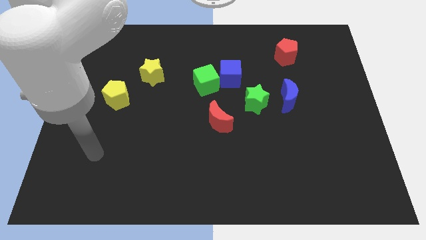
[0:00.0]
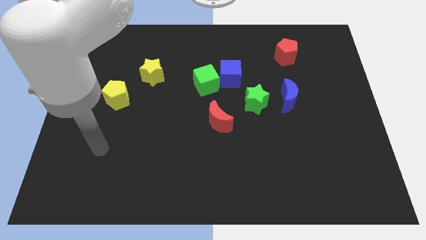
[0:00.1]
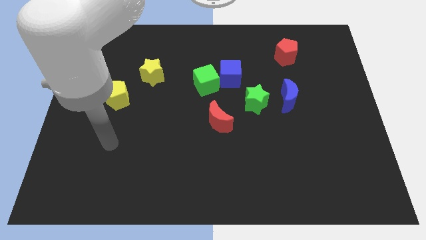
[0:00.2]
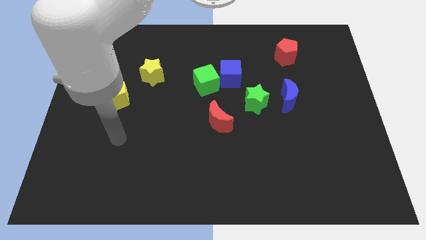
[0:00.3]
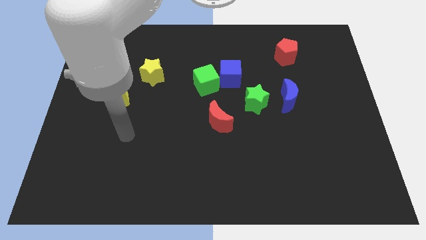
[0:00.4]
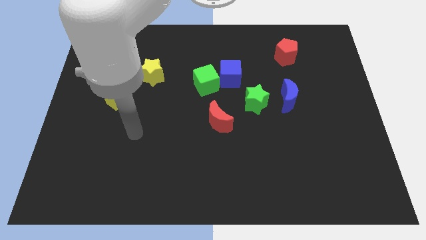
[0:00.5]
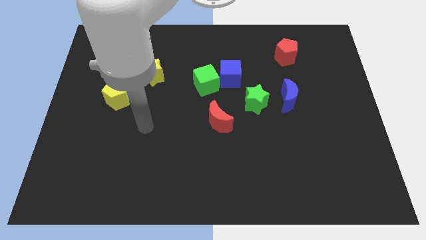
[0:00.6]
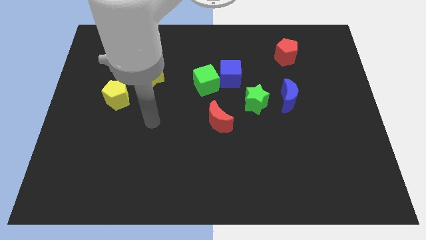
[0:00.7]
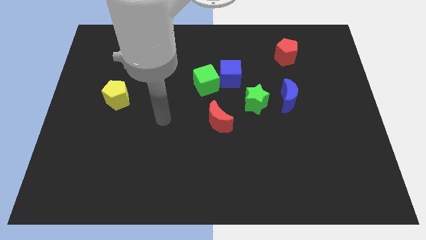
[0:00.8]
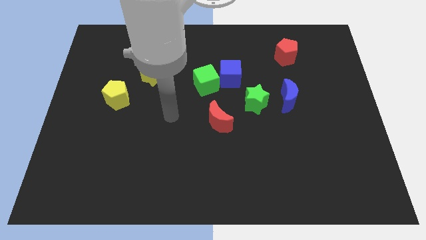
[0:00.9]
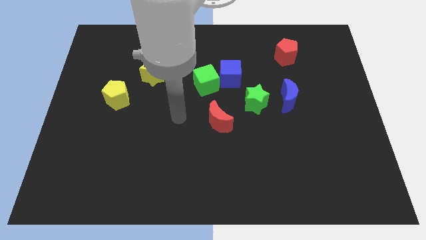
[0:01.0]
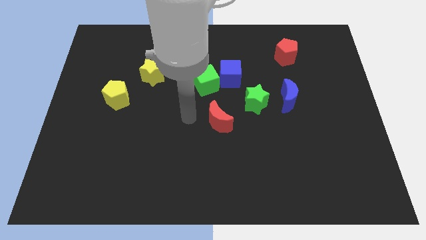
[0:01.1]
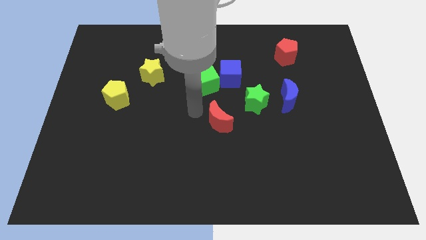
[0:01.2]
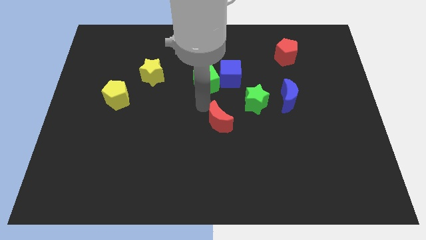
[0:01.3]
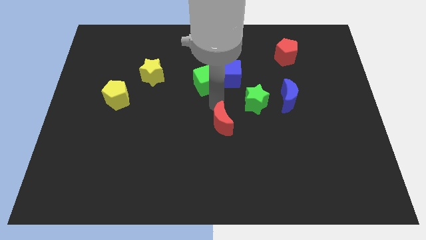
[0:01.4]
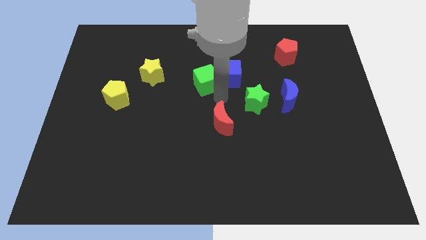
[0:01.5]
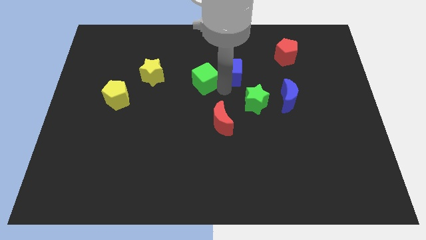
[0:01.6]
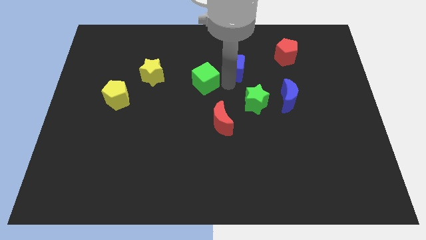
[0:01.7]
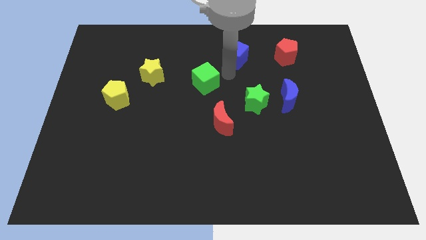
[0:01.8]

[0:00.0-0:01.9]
pull the green cube apart from the blue cube

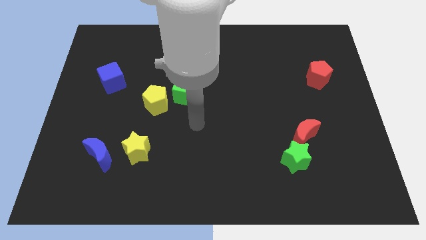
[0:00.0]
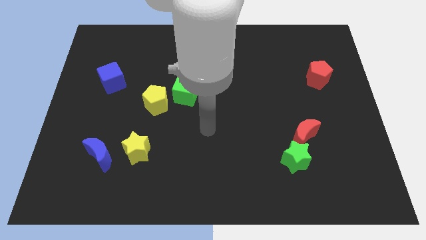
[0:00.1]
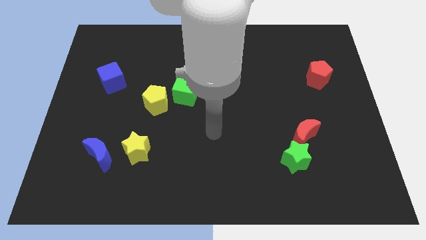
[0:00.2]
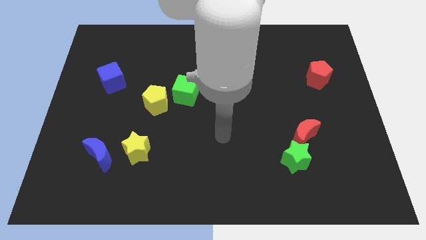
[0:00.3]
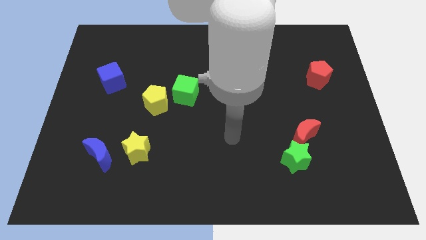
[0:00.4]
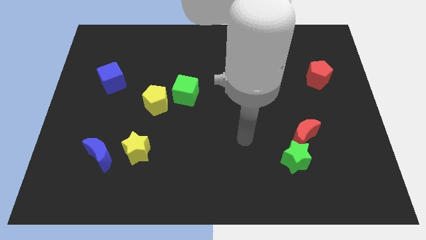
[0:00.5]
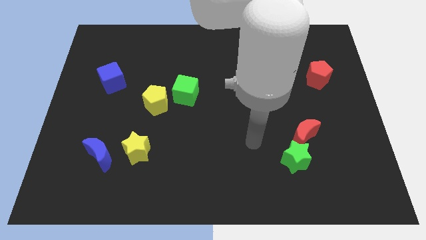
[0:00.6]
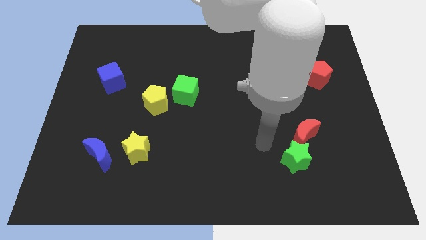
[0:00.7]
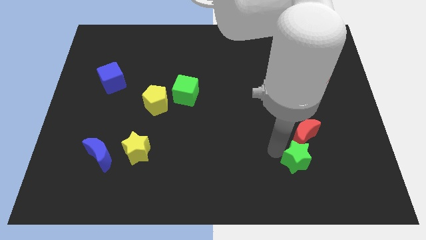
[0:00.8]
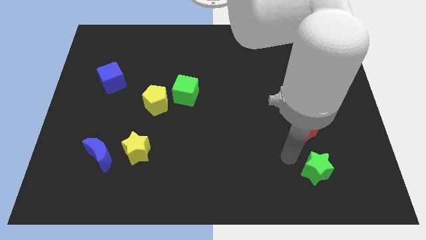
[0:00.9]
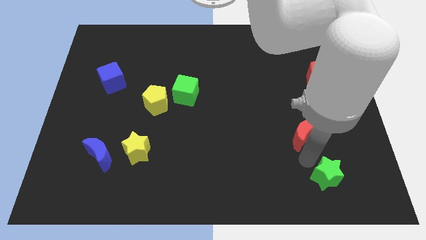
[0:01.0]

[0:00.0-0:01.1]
separate the red moon from the green star

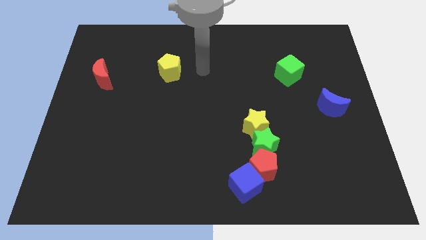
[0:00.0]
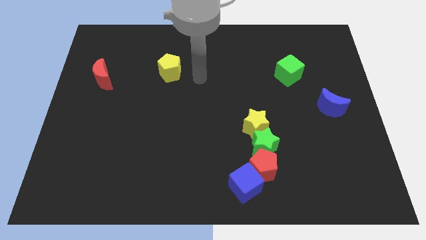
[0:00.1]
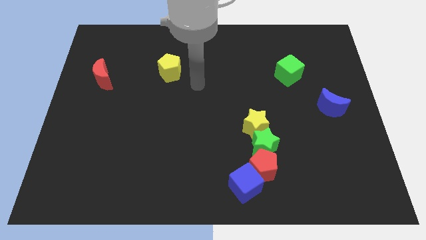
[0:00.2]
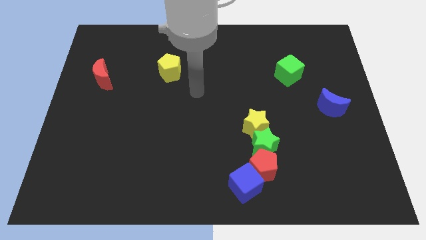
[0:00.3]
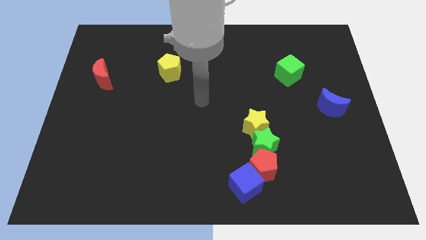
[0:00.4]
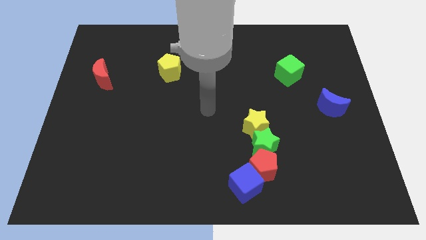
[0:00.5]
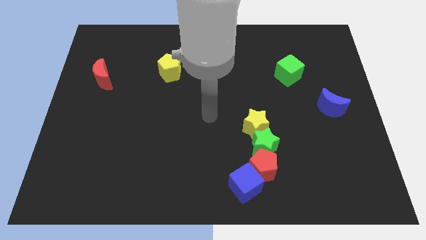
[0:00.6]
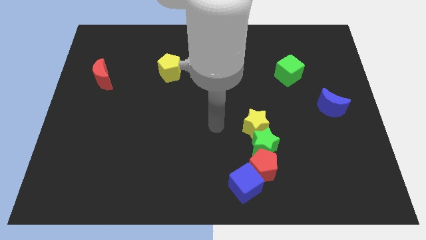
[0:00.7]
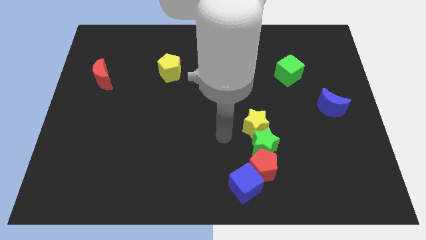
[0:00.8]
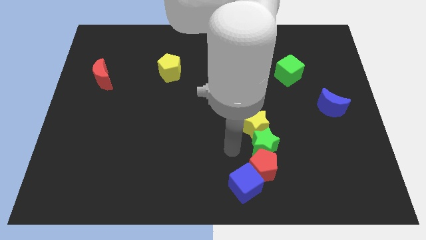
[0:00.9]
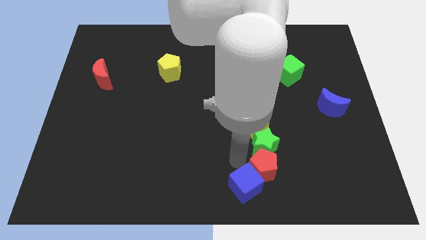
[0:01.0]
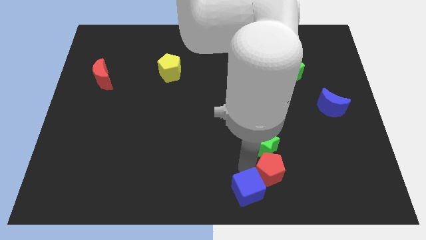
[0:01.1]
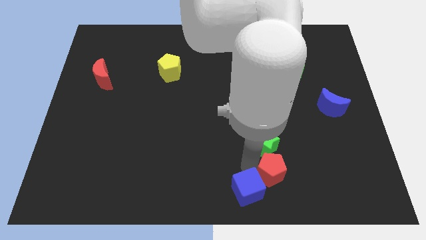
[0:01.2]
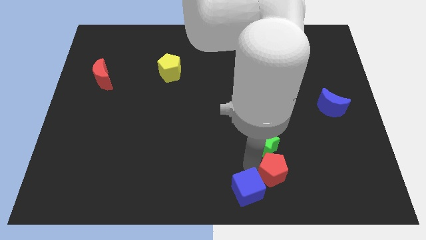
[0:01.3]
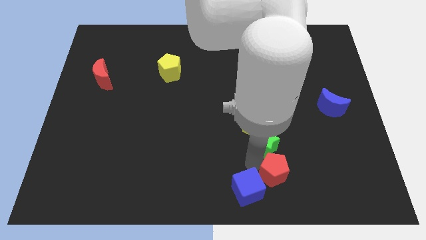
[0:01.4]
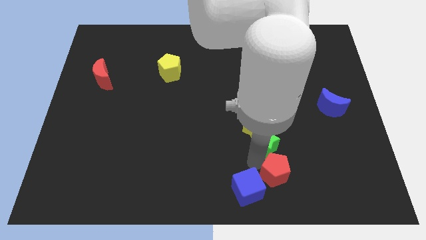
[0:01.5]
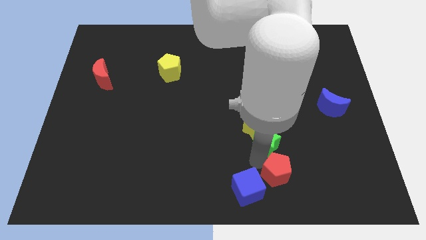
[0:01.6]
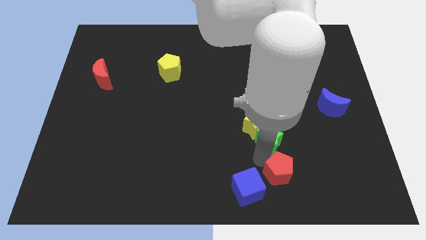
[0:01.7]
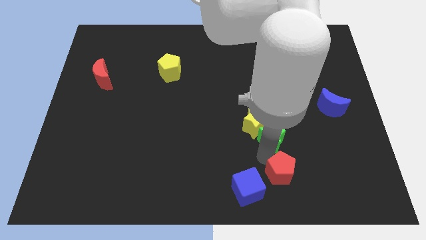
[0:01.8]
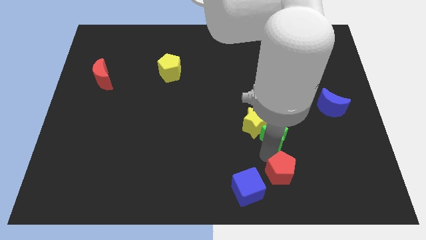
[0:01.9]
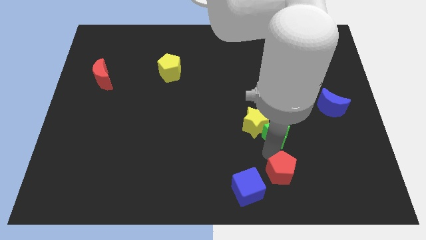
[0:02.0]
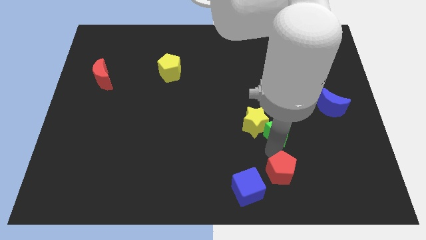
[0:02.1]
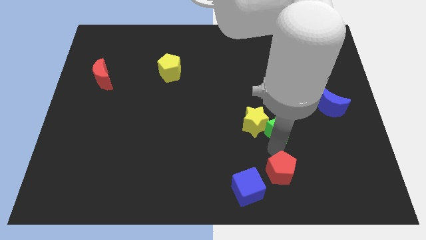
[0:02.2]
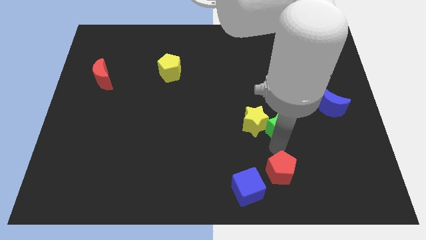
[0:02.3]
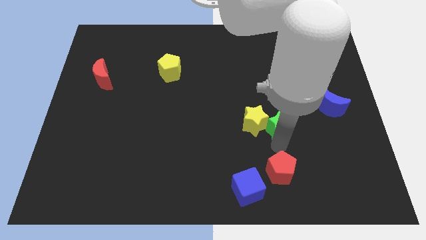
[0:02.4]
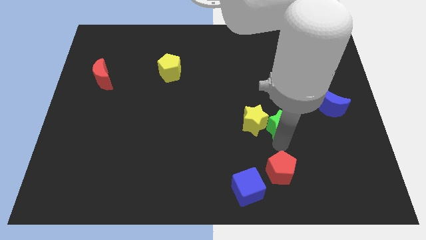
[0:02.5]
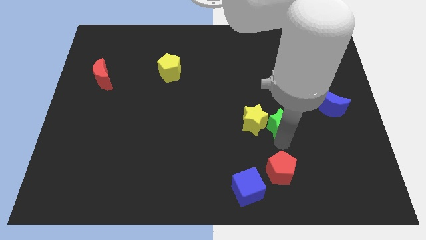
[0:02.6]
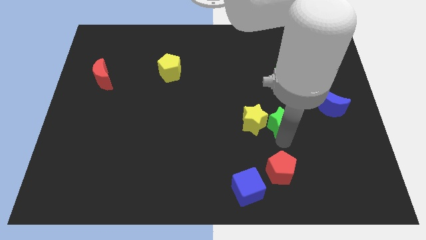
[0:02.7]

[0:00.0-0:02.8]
separate the green star from the group

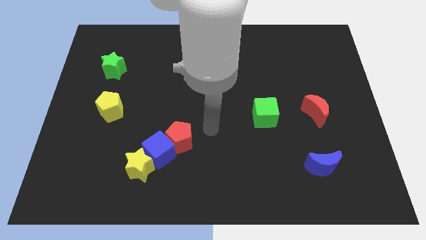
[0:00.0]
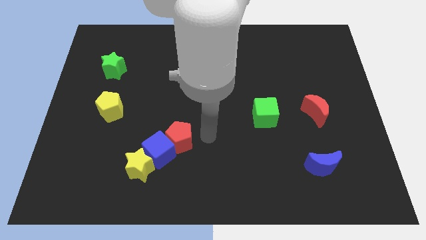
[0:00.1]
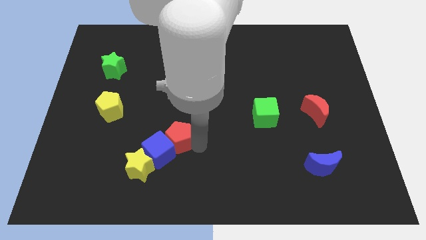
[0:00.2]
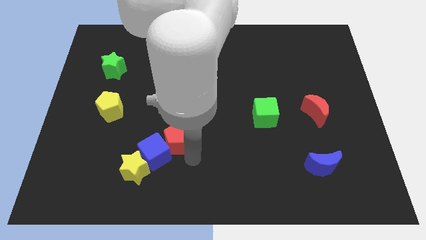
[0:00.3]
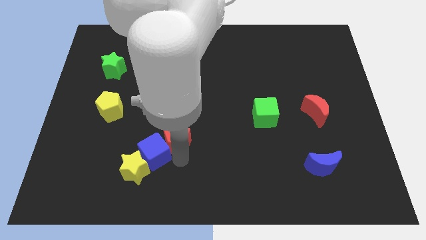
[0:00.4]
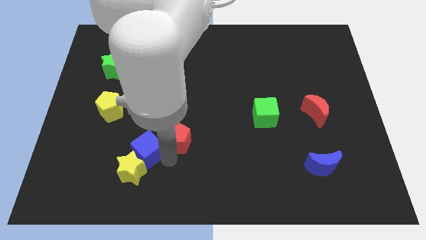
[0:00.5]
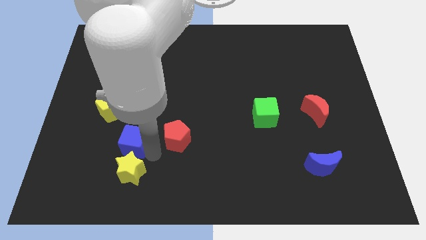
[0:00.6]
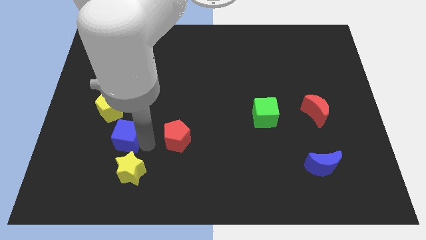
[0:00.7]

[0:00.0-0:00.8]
move the red pentagon away from the blue cube

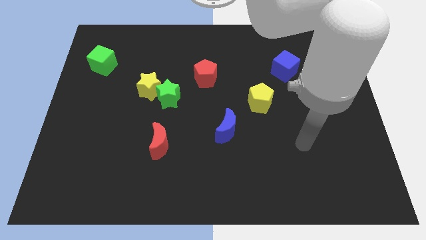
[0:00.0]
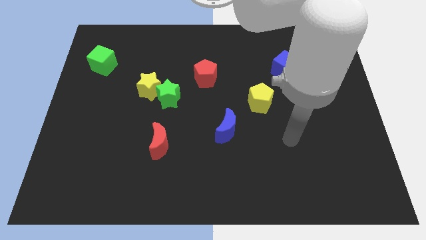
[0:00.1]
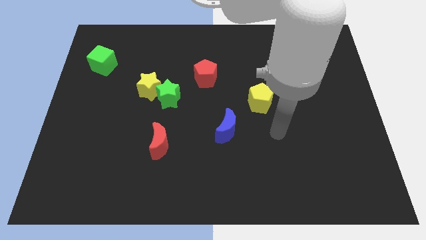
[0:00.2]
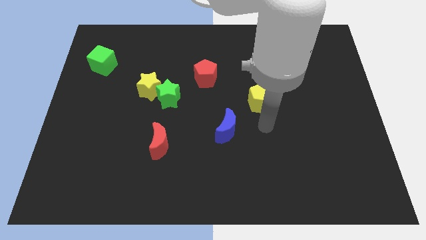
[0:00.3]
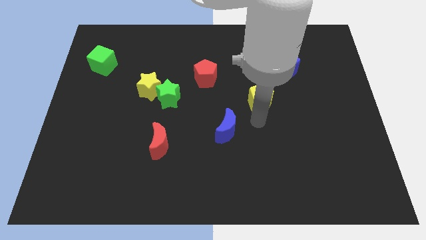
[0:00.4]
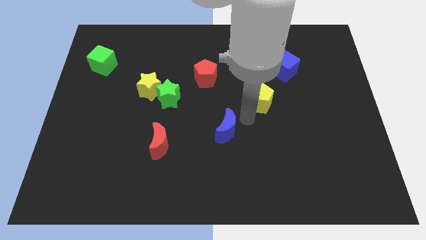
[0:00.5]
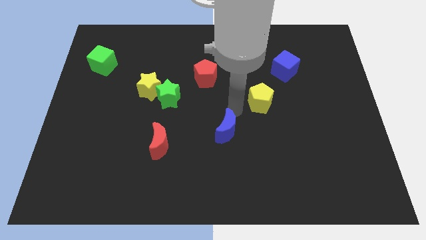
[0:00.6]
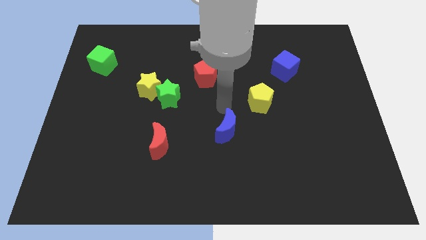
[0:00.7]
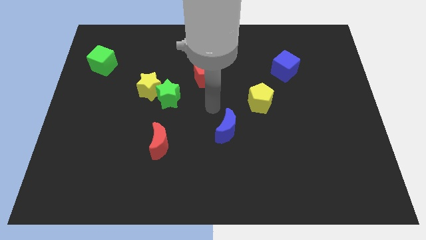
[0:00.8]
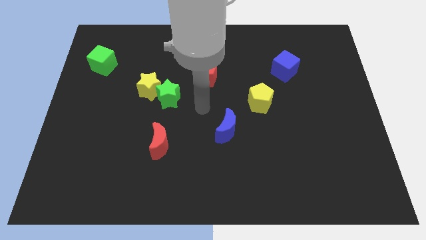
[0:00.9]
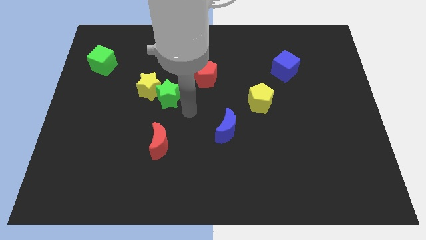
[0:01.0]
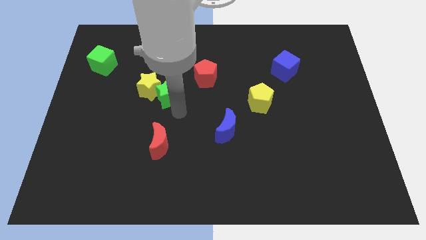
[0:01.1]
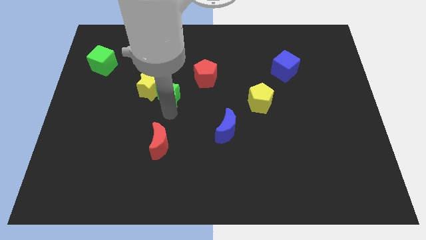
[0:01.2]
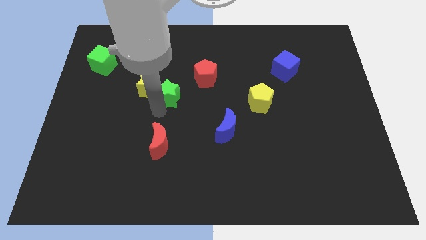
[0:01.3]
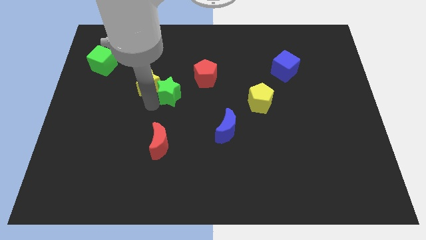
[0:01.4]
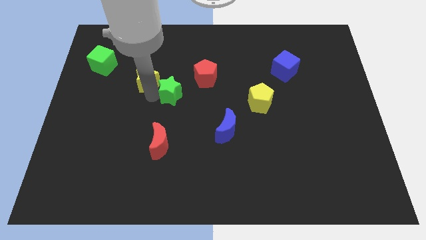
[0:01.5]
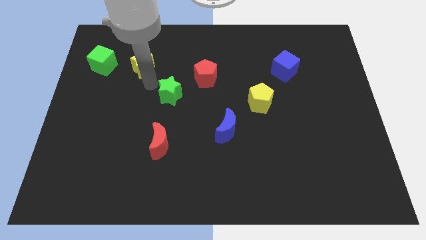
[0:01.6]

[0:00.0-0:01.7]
move the green star away from the yellow star

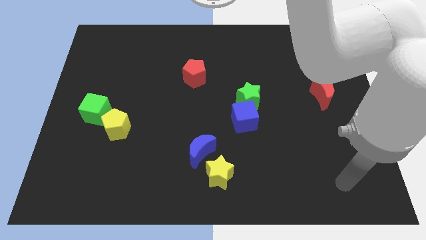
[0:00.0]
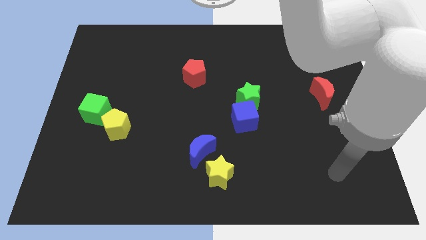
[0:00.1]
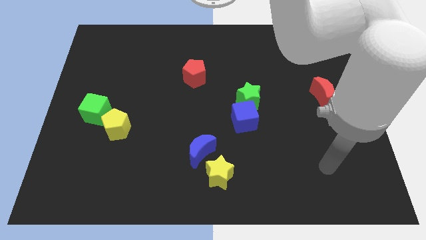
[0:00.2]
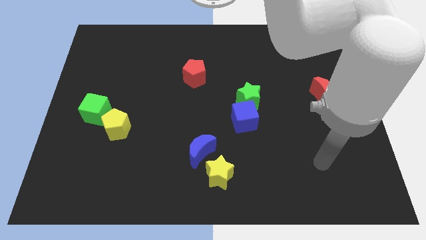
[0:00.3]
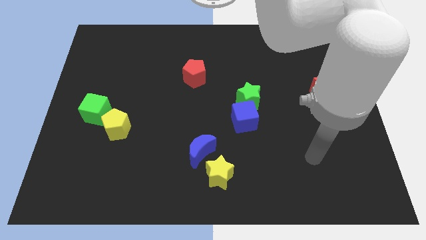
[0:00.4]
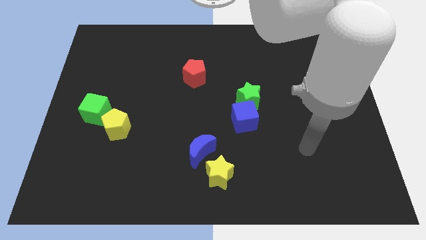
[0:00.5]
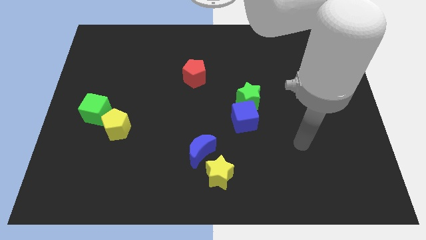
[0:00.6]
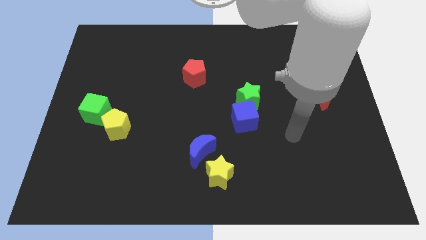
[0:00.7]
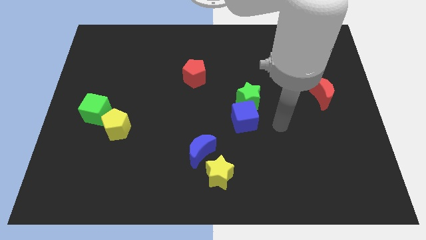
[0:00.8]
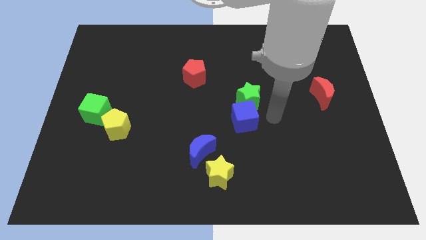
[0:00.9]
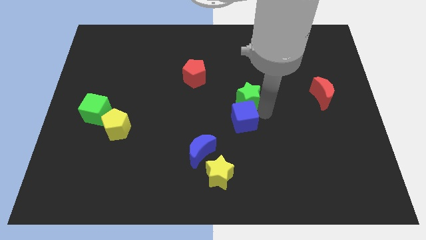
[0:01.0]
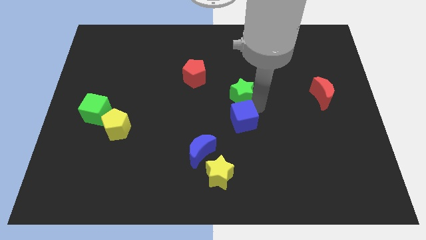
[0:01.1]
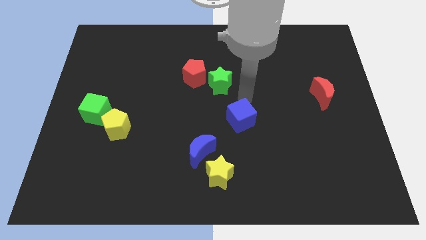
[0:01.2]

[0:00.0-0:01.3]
pull the blue cube apart from the green star
